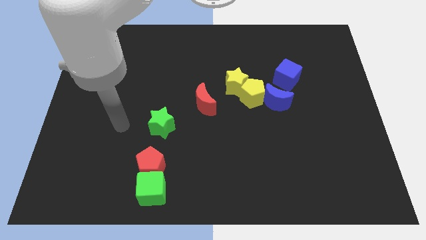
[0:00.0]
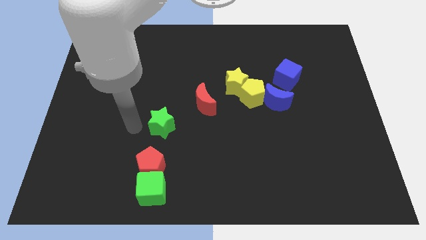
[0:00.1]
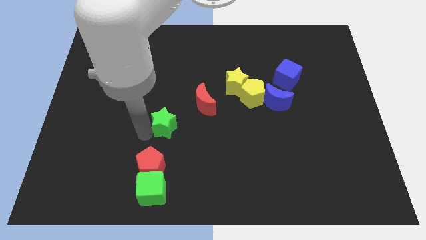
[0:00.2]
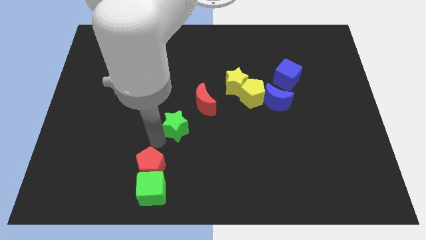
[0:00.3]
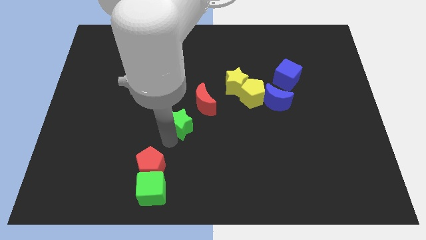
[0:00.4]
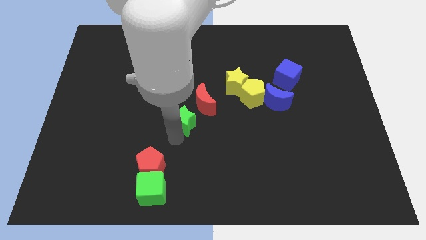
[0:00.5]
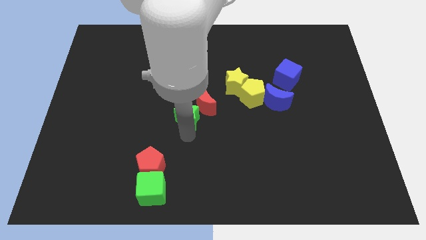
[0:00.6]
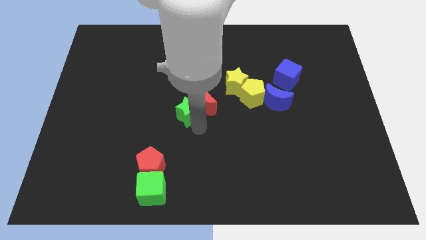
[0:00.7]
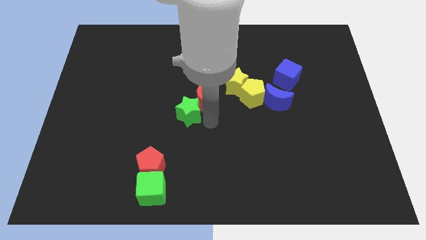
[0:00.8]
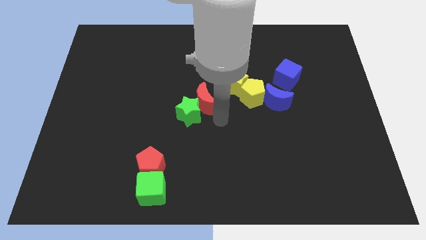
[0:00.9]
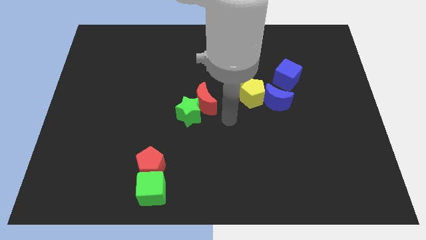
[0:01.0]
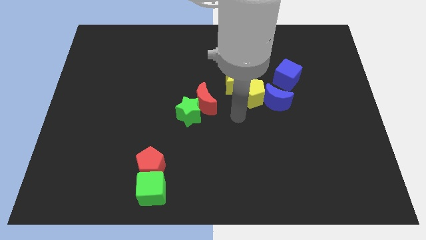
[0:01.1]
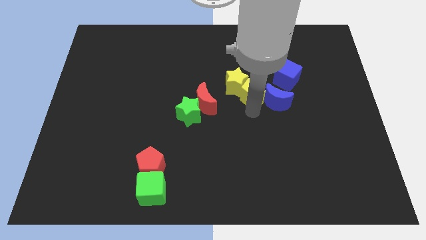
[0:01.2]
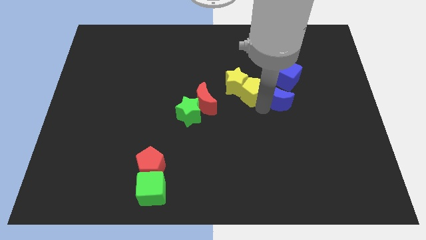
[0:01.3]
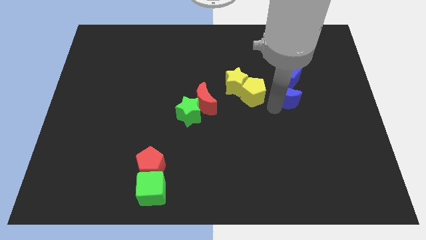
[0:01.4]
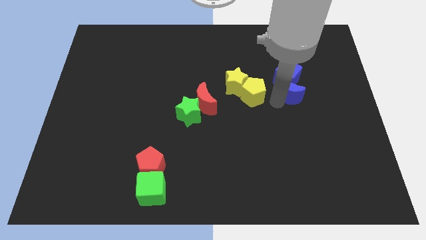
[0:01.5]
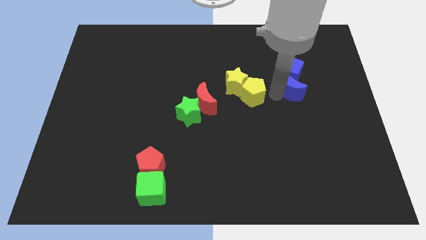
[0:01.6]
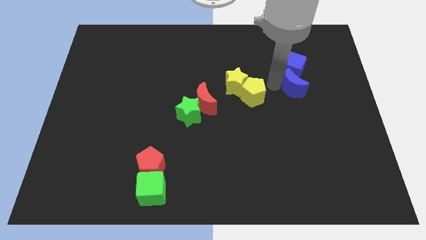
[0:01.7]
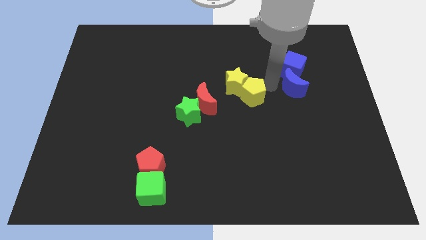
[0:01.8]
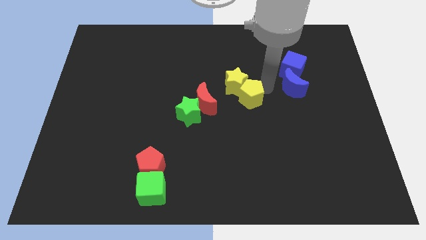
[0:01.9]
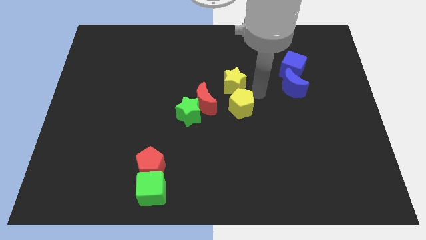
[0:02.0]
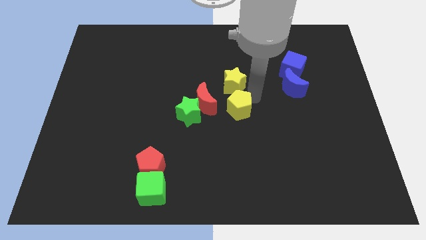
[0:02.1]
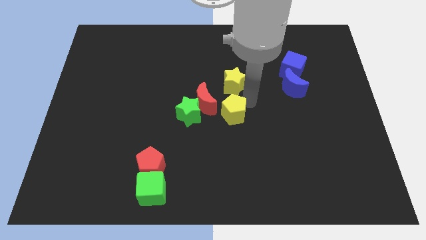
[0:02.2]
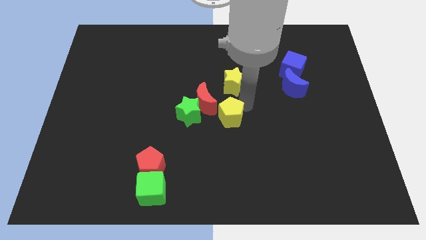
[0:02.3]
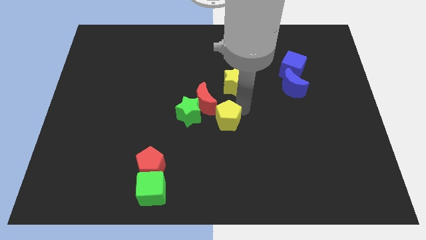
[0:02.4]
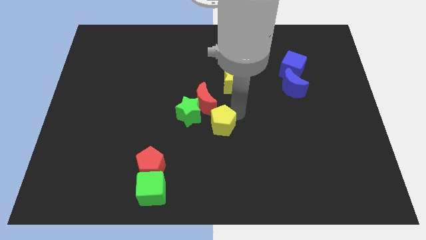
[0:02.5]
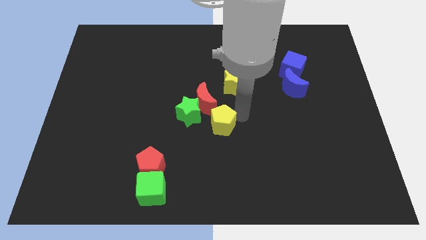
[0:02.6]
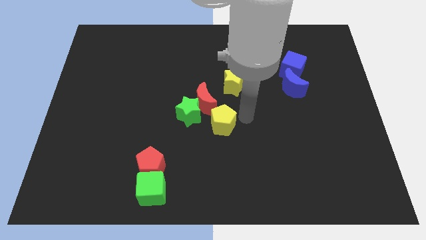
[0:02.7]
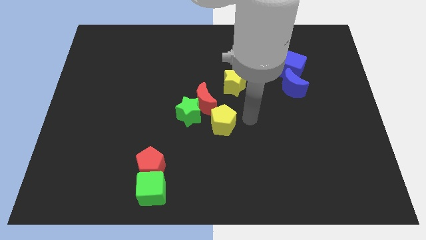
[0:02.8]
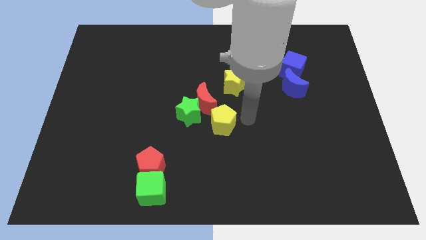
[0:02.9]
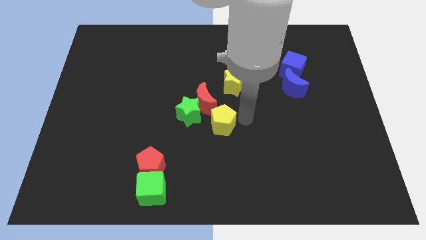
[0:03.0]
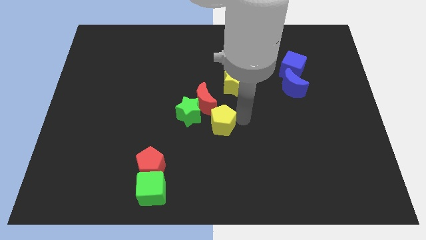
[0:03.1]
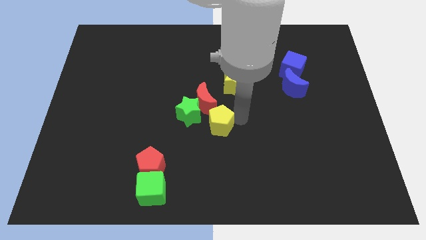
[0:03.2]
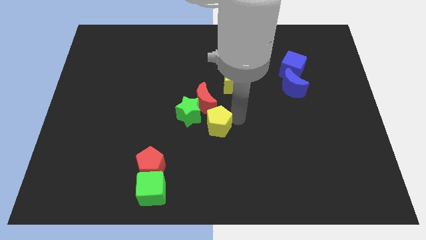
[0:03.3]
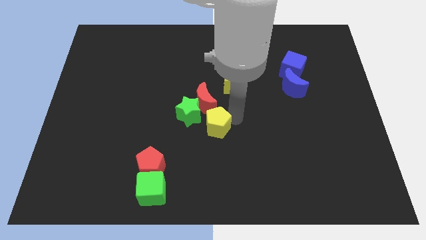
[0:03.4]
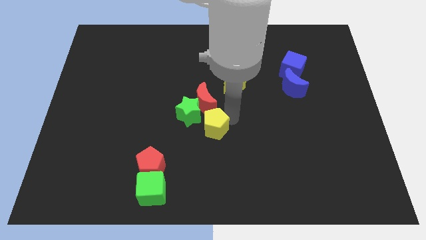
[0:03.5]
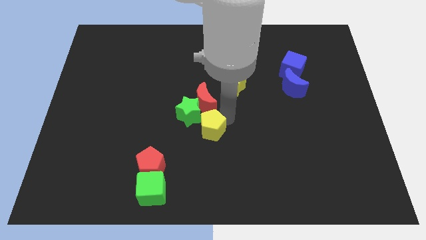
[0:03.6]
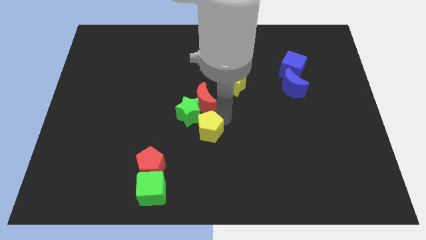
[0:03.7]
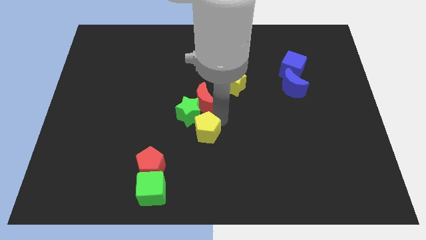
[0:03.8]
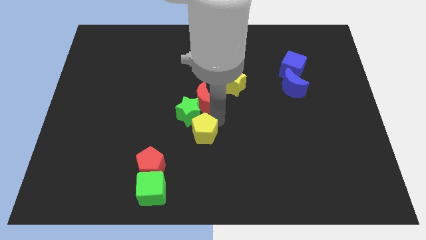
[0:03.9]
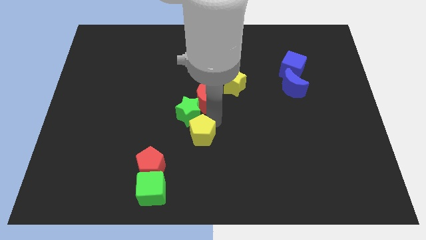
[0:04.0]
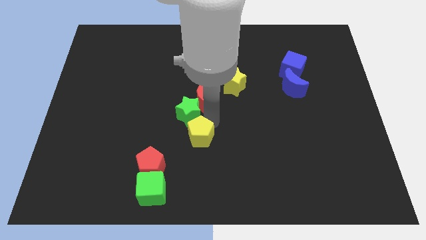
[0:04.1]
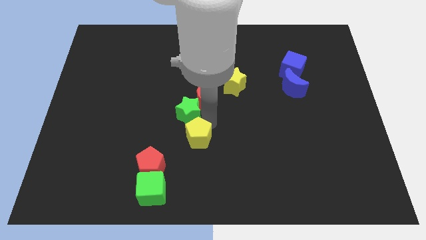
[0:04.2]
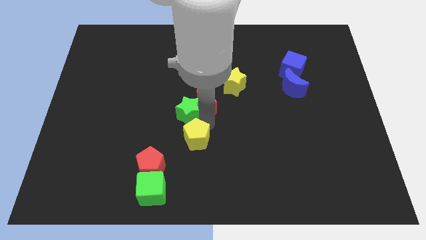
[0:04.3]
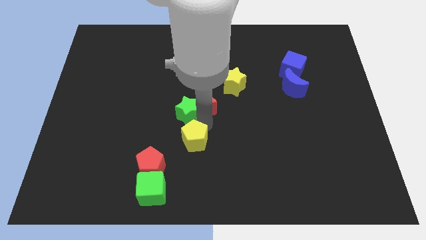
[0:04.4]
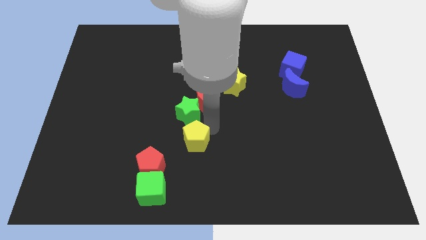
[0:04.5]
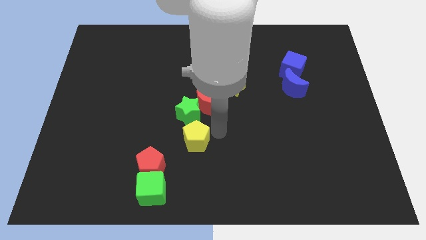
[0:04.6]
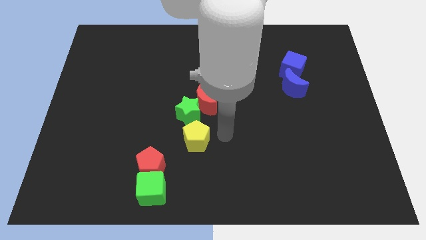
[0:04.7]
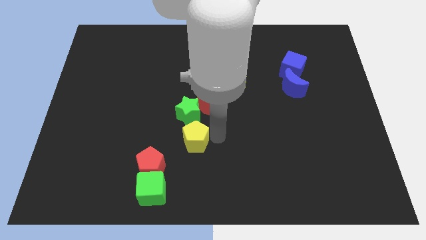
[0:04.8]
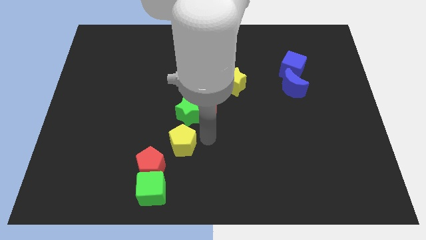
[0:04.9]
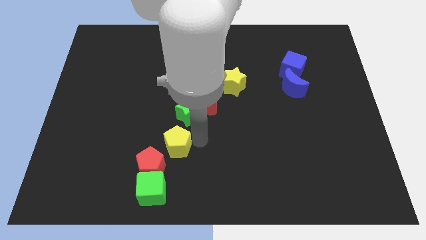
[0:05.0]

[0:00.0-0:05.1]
put the yellow pentagon to the top of the green cube

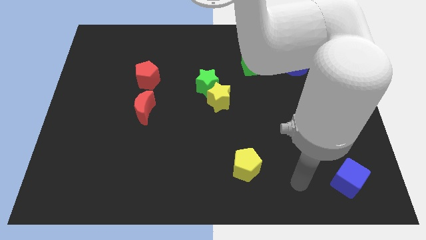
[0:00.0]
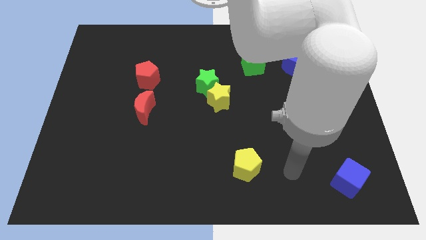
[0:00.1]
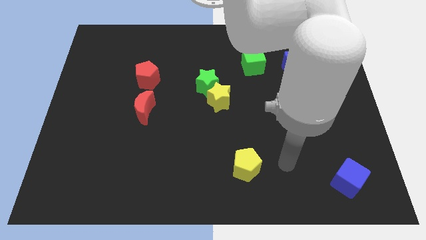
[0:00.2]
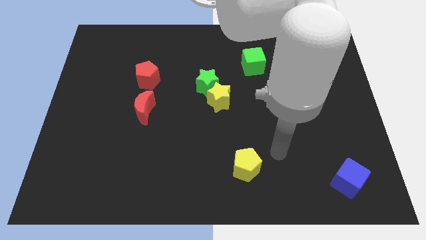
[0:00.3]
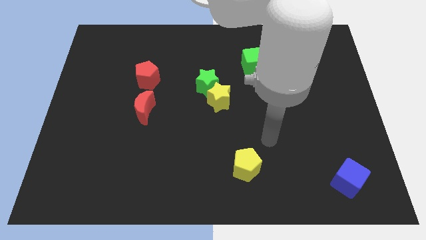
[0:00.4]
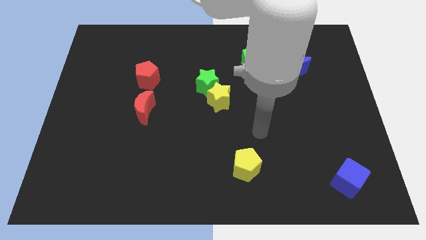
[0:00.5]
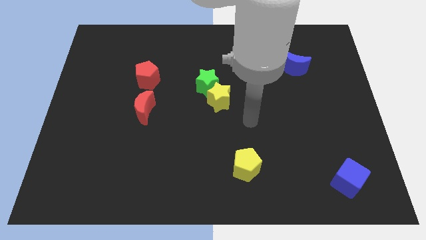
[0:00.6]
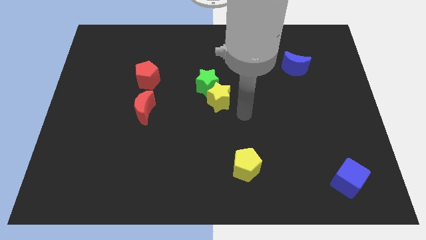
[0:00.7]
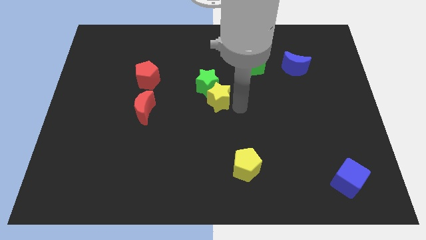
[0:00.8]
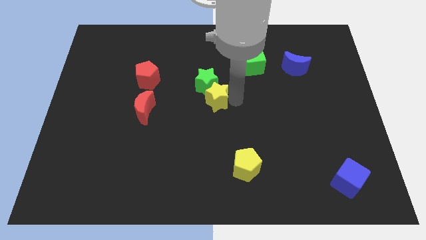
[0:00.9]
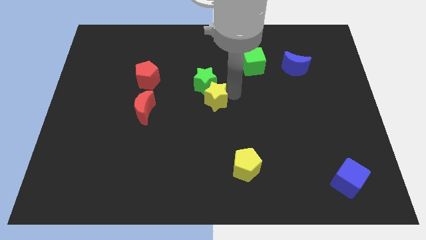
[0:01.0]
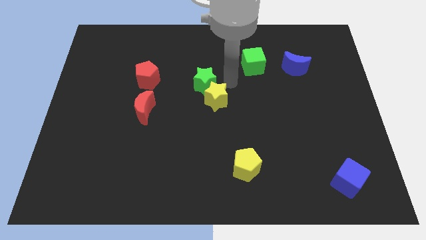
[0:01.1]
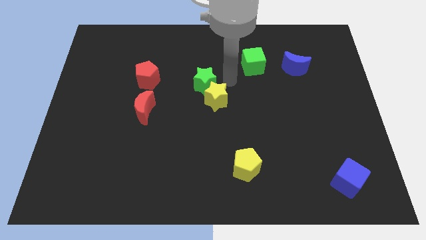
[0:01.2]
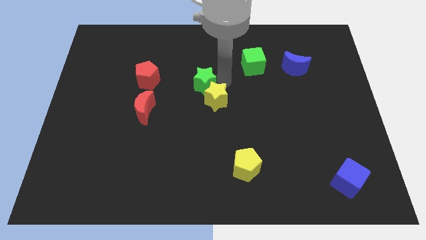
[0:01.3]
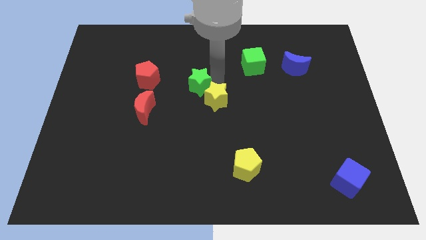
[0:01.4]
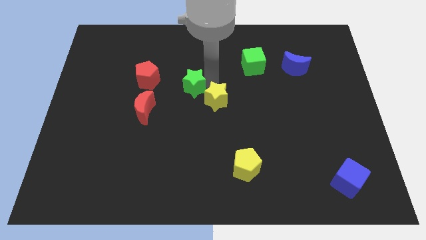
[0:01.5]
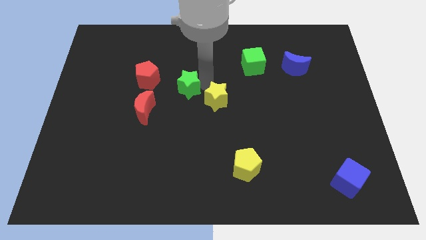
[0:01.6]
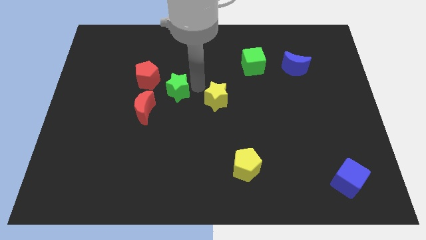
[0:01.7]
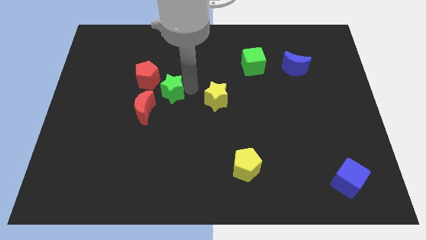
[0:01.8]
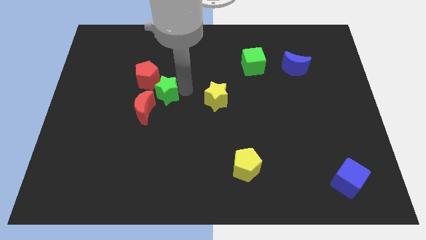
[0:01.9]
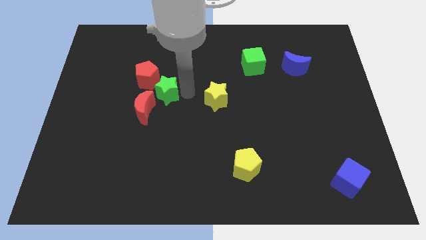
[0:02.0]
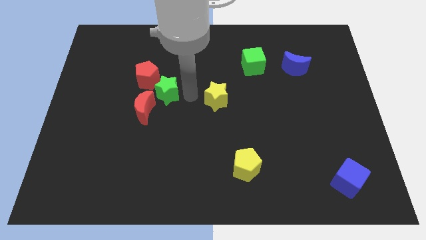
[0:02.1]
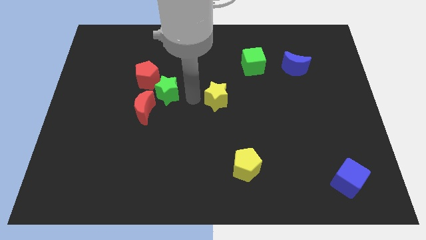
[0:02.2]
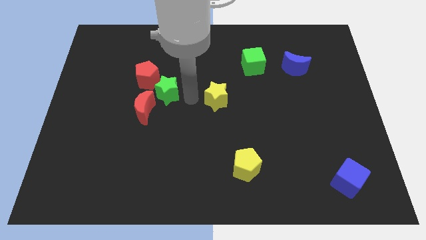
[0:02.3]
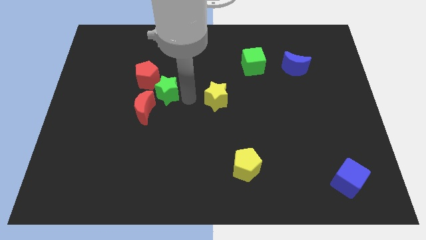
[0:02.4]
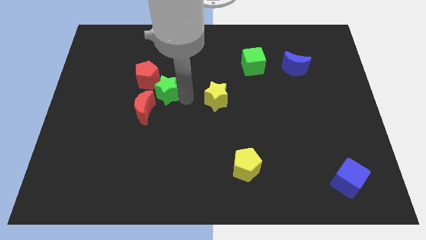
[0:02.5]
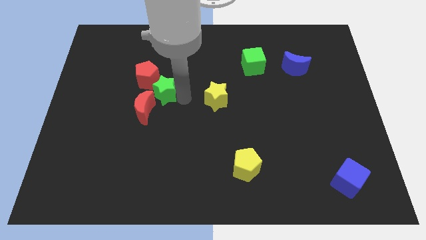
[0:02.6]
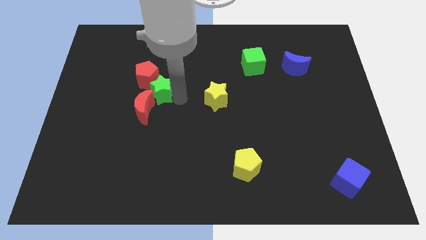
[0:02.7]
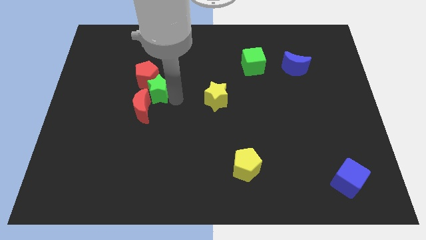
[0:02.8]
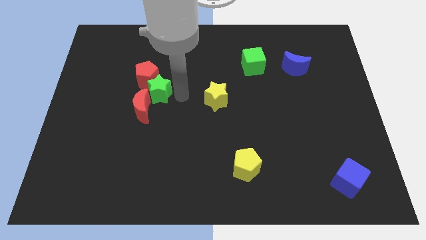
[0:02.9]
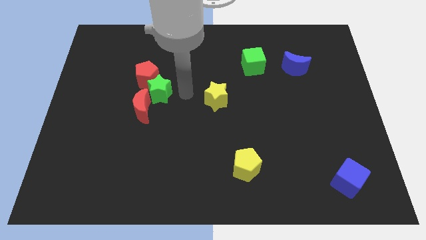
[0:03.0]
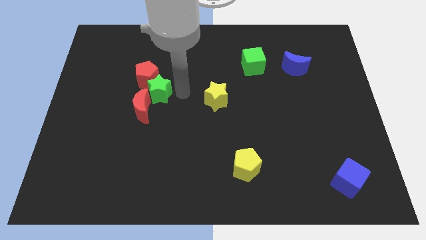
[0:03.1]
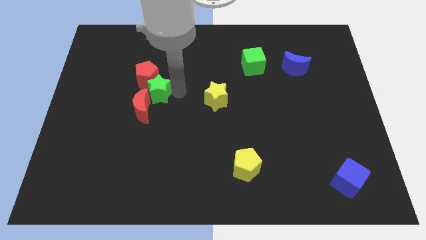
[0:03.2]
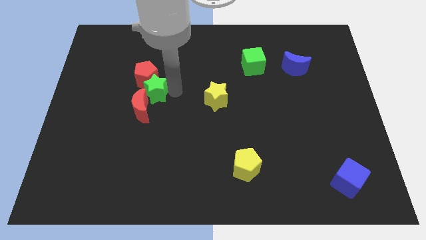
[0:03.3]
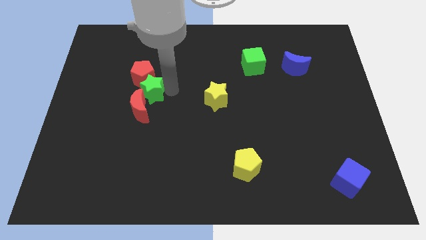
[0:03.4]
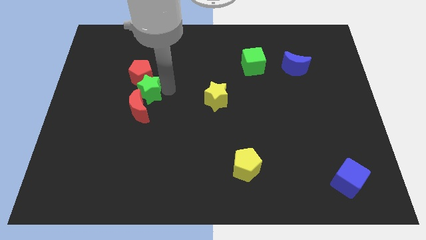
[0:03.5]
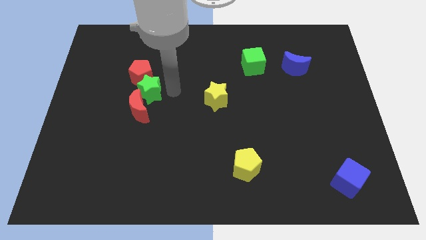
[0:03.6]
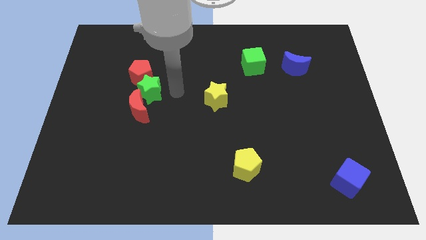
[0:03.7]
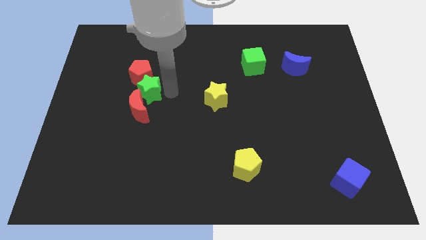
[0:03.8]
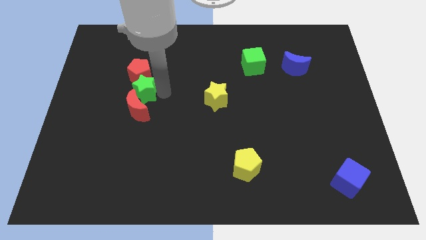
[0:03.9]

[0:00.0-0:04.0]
slide the green star to the top left of the red moon
